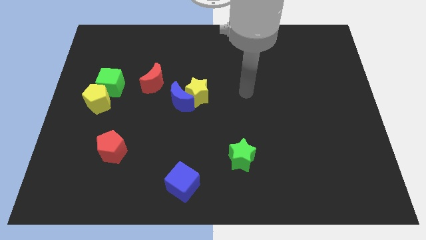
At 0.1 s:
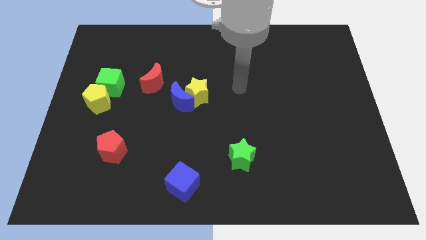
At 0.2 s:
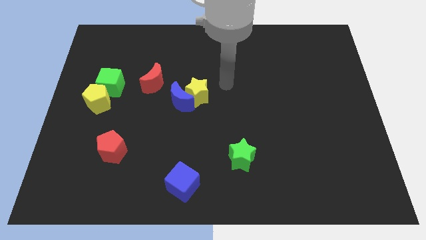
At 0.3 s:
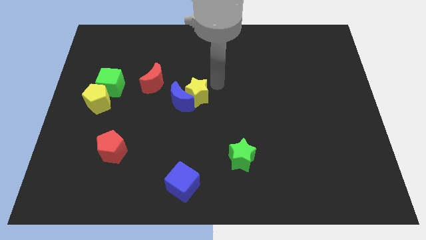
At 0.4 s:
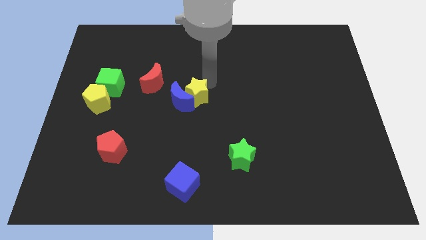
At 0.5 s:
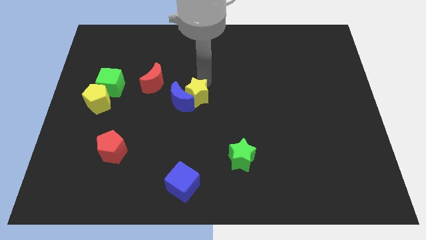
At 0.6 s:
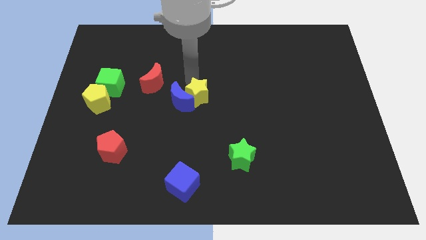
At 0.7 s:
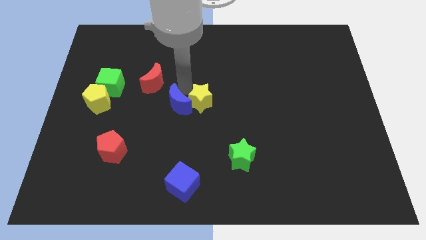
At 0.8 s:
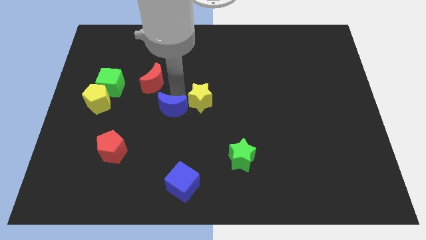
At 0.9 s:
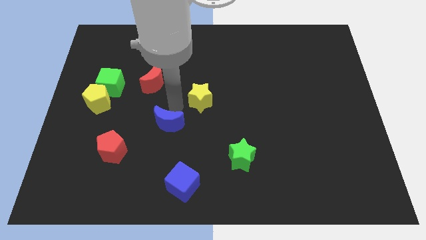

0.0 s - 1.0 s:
separate the yellow star from the blue moon

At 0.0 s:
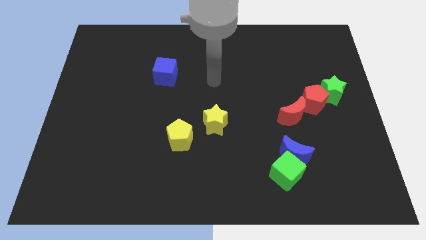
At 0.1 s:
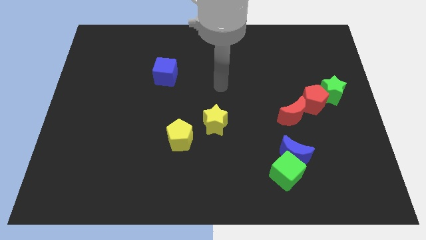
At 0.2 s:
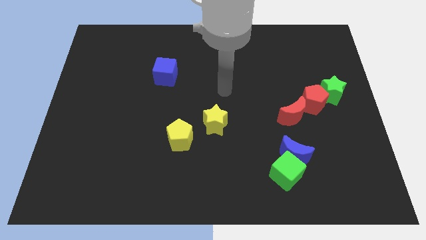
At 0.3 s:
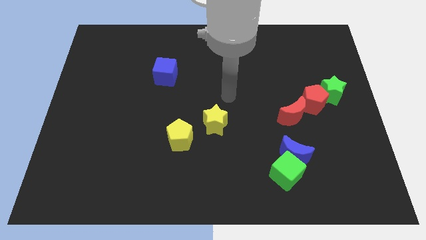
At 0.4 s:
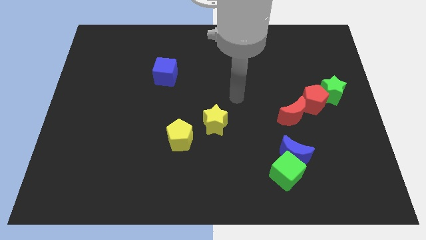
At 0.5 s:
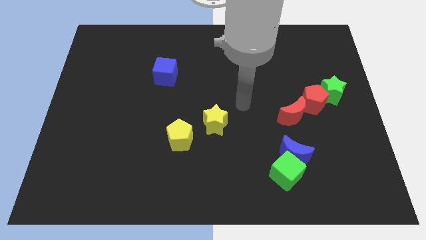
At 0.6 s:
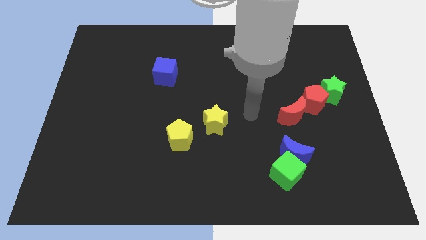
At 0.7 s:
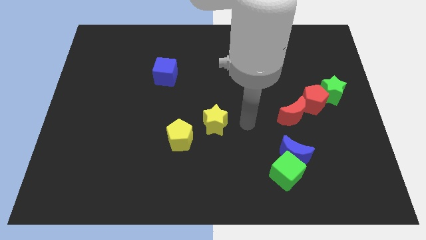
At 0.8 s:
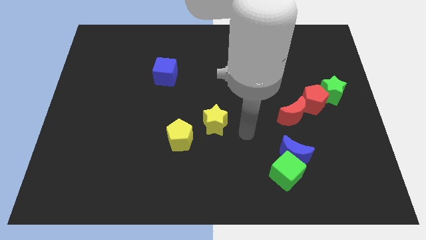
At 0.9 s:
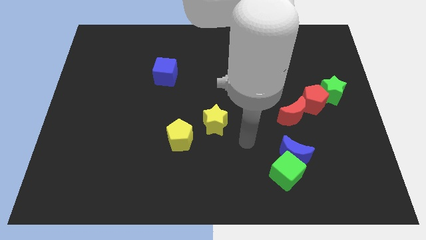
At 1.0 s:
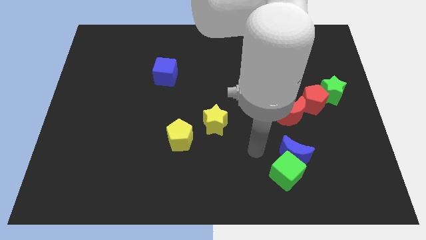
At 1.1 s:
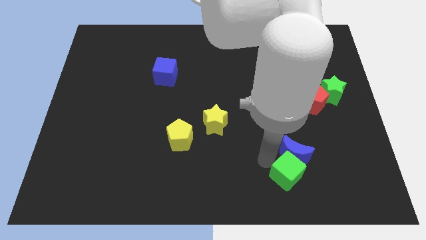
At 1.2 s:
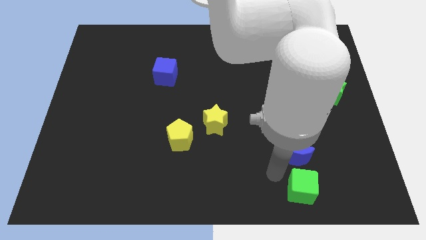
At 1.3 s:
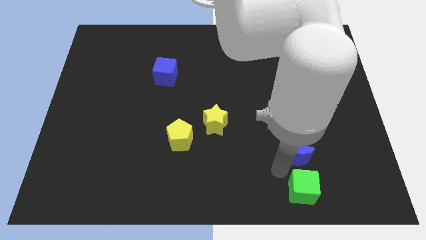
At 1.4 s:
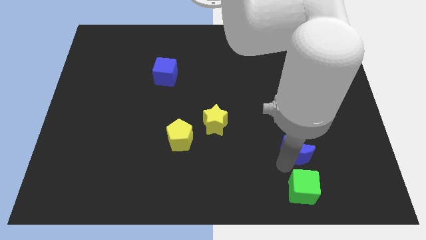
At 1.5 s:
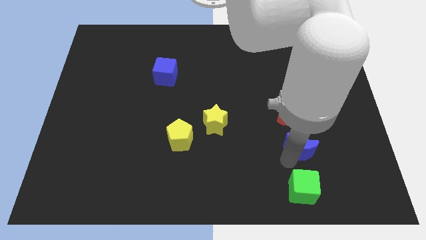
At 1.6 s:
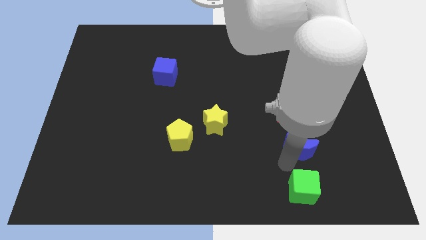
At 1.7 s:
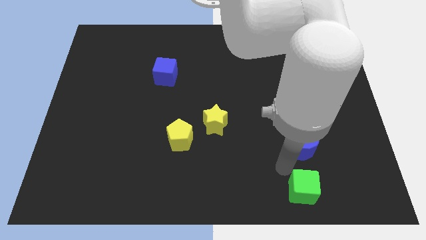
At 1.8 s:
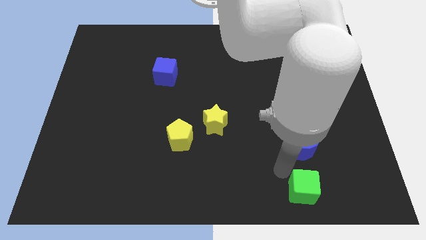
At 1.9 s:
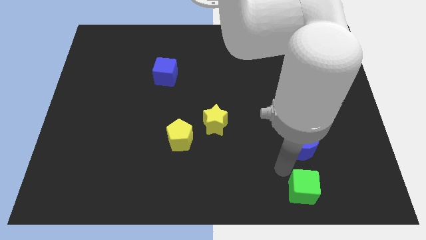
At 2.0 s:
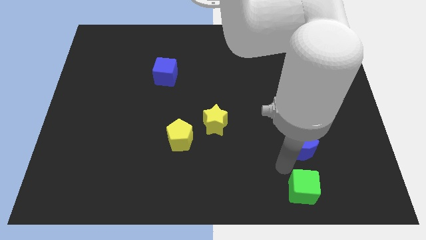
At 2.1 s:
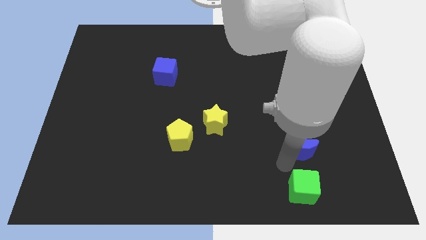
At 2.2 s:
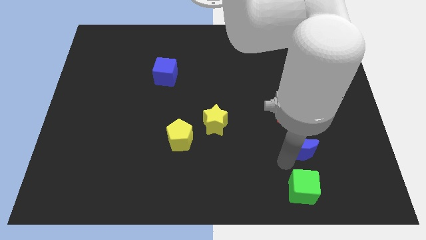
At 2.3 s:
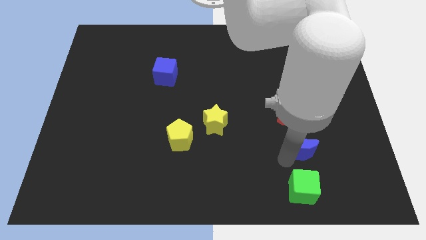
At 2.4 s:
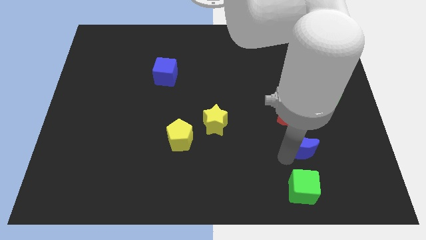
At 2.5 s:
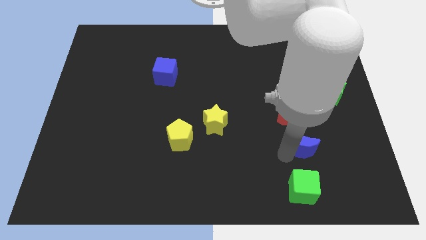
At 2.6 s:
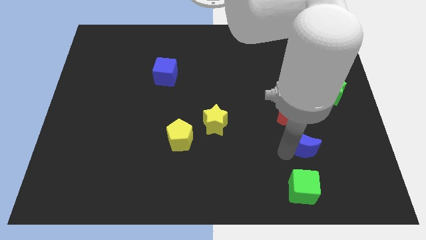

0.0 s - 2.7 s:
move the blue moon away from the green cube

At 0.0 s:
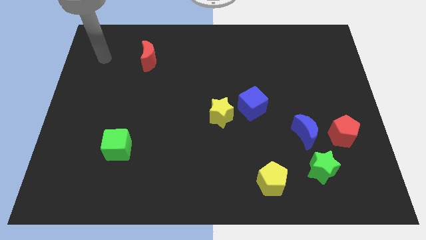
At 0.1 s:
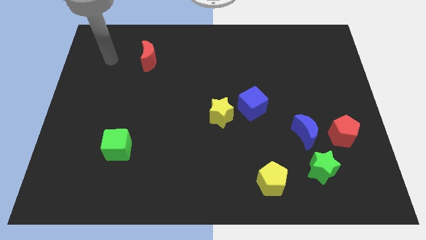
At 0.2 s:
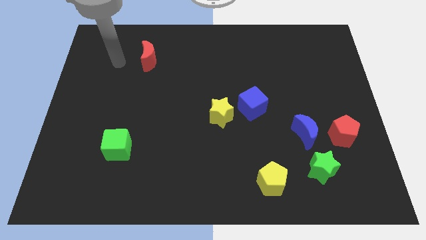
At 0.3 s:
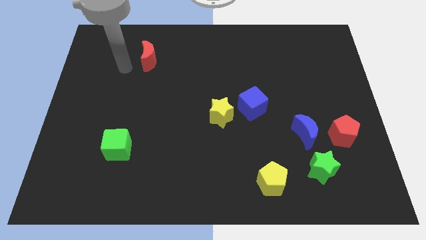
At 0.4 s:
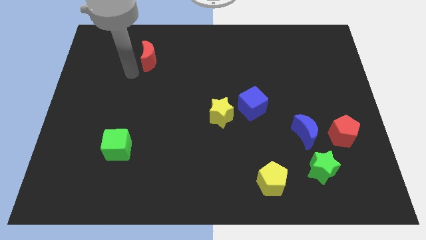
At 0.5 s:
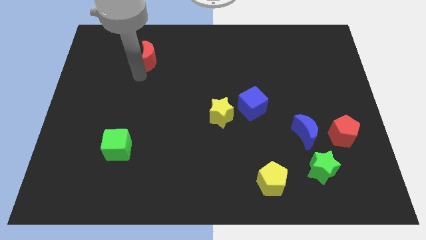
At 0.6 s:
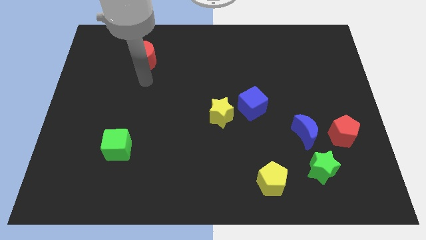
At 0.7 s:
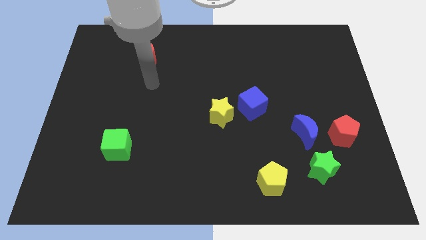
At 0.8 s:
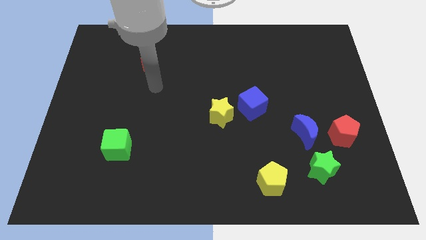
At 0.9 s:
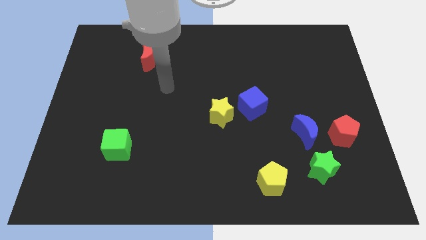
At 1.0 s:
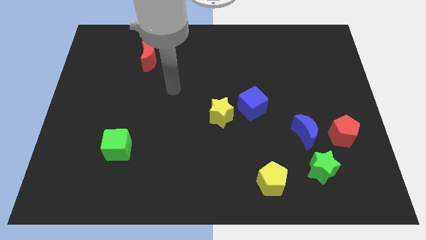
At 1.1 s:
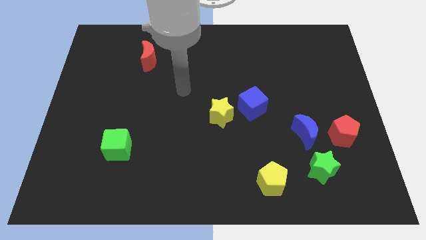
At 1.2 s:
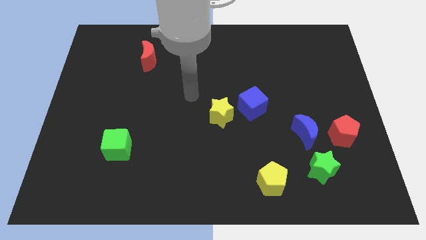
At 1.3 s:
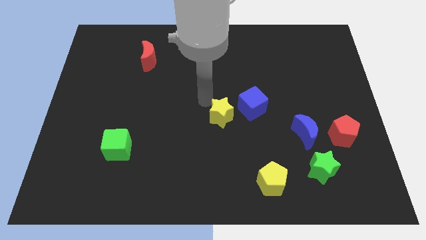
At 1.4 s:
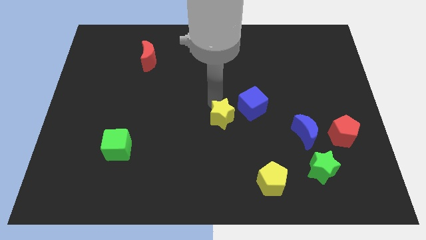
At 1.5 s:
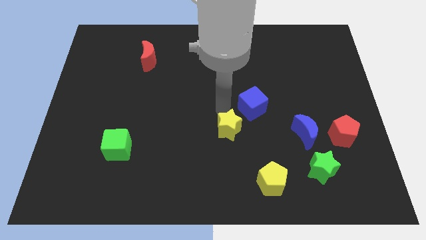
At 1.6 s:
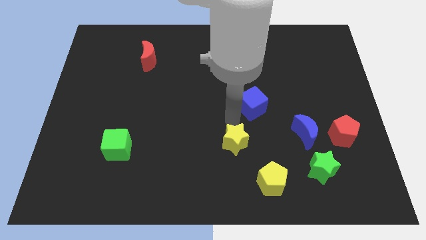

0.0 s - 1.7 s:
separate the blue cube from the yellow star

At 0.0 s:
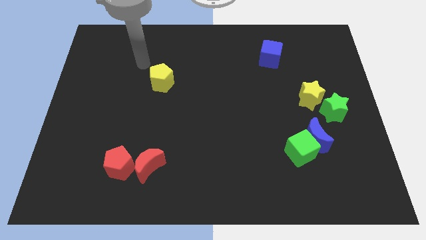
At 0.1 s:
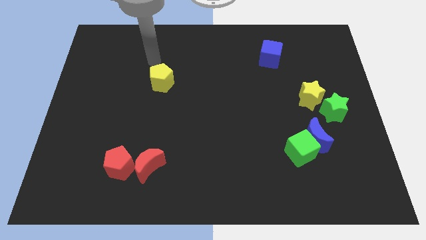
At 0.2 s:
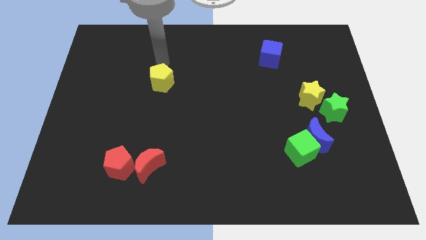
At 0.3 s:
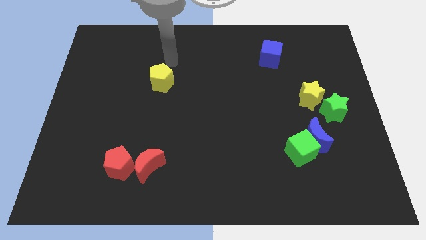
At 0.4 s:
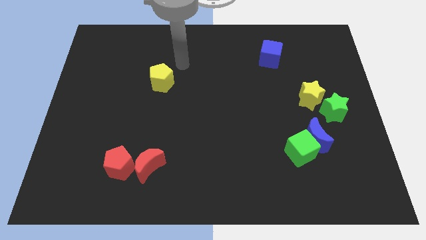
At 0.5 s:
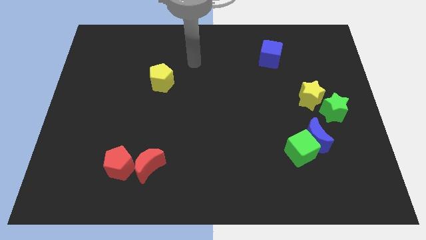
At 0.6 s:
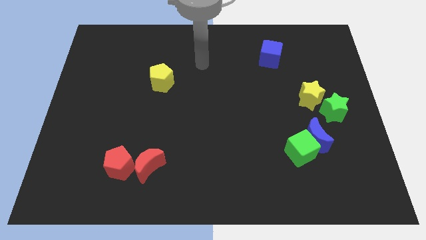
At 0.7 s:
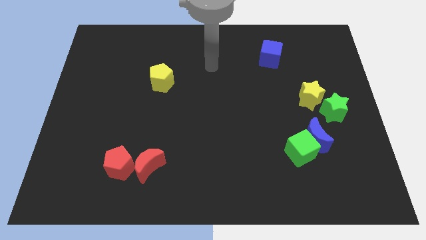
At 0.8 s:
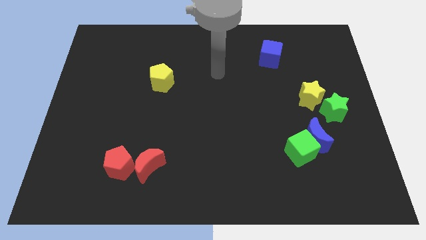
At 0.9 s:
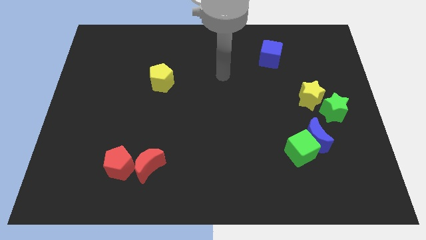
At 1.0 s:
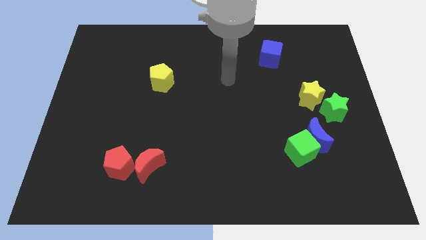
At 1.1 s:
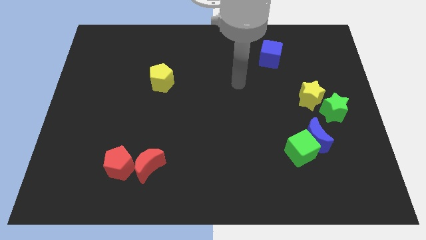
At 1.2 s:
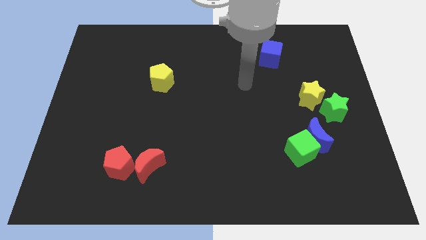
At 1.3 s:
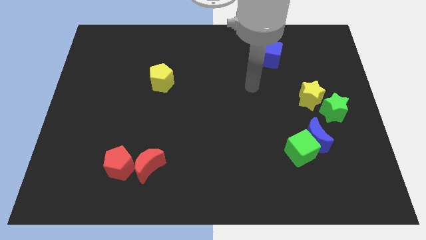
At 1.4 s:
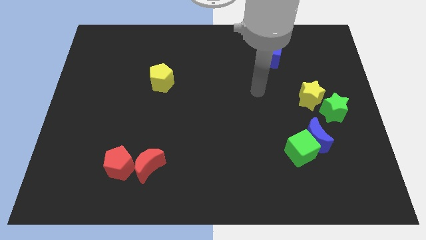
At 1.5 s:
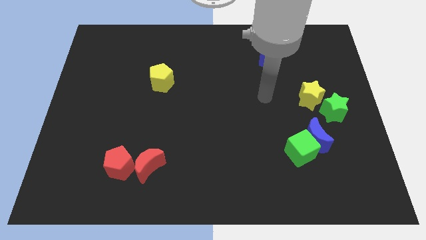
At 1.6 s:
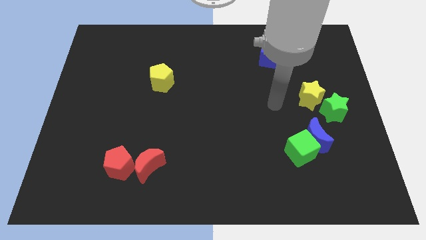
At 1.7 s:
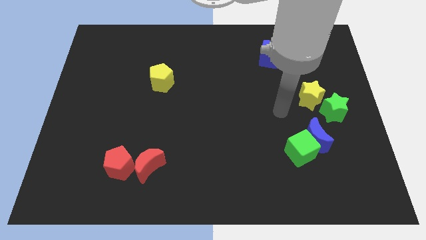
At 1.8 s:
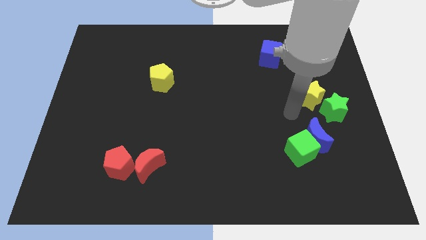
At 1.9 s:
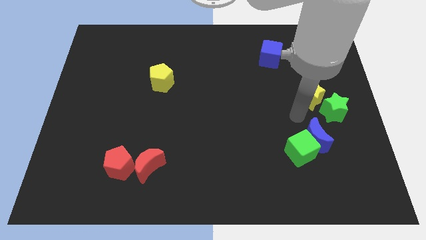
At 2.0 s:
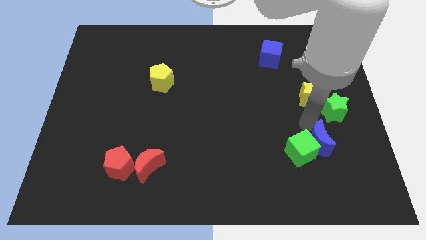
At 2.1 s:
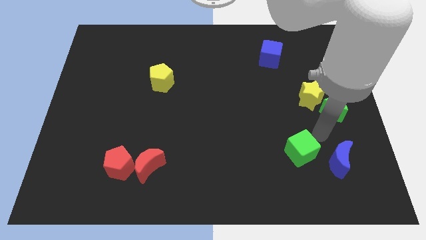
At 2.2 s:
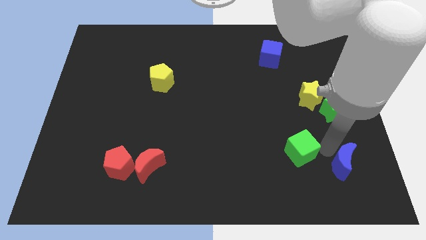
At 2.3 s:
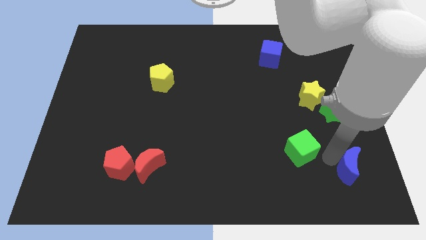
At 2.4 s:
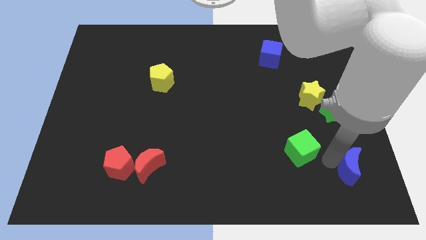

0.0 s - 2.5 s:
pull the green cube apart from the blue moon

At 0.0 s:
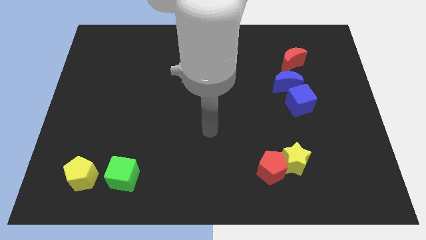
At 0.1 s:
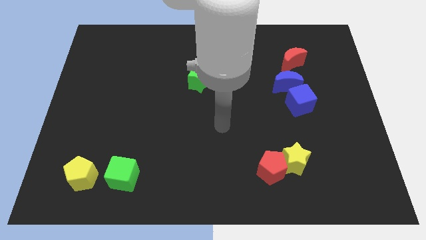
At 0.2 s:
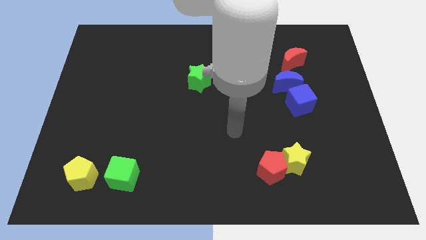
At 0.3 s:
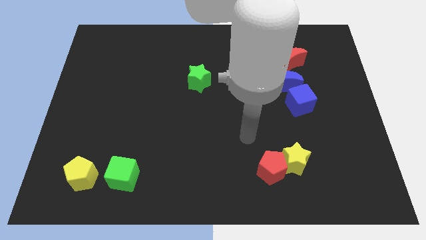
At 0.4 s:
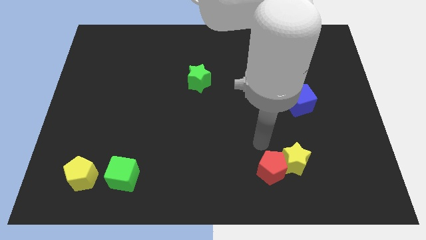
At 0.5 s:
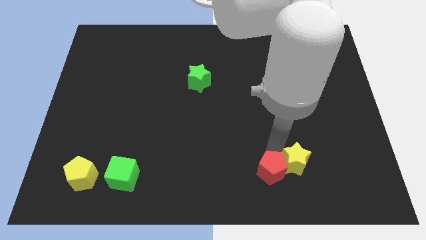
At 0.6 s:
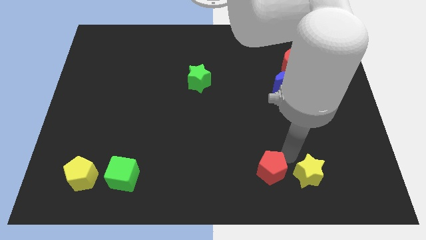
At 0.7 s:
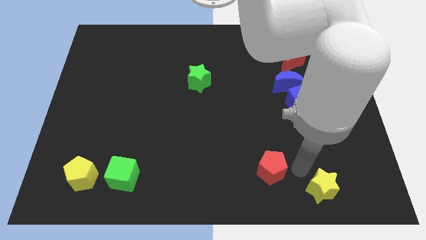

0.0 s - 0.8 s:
move the red pentagon away from the yellow star

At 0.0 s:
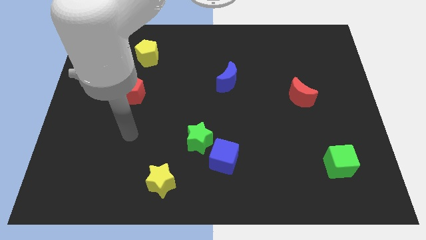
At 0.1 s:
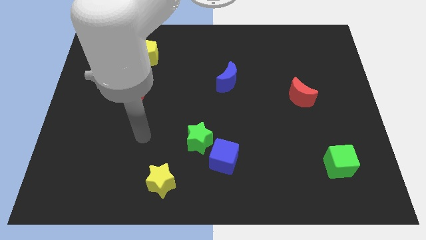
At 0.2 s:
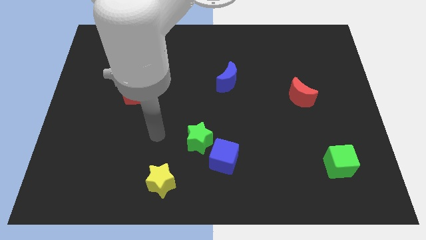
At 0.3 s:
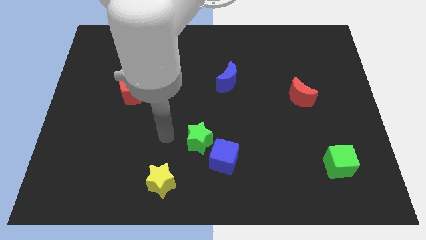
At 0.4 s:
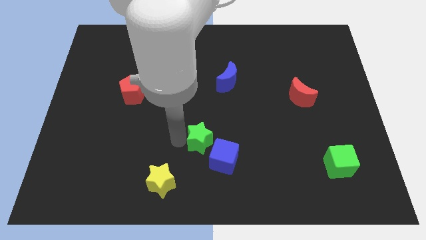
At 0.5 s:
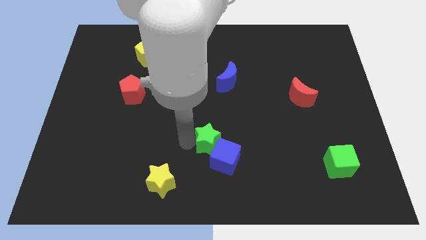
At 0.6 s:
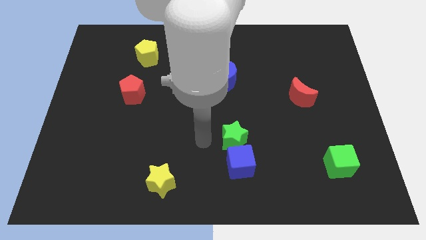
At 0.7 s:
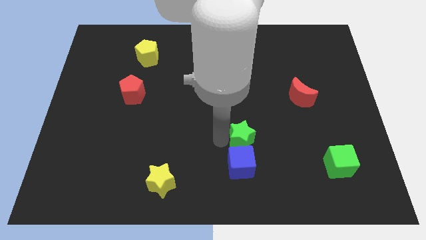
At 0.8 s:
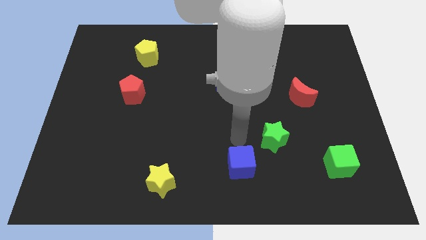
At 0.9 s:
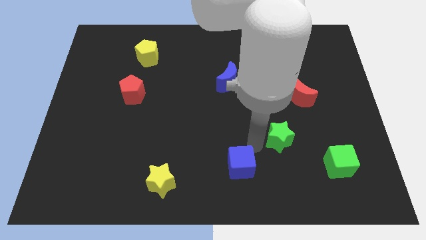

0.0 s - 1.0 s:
move the blue cube away from the green star
